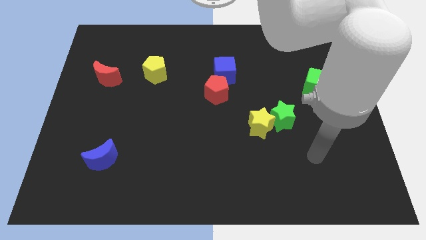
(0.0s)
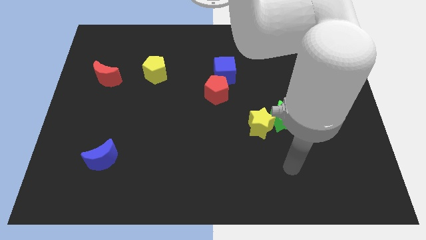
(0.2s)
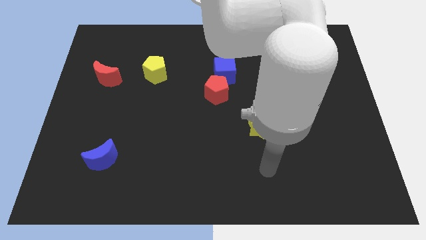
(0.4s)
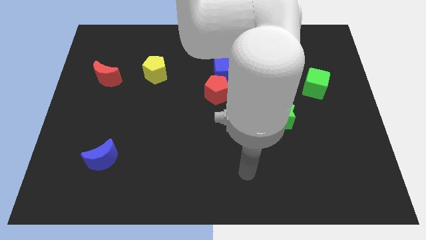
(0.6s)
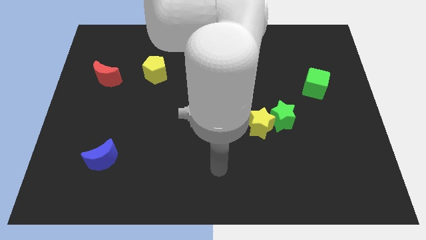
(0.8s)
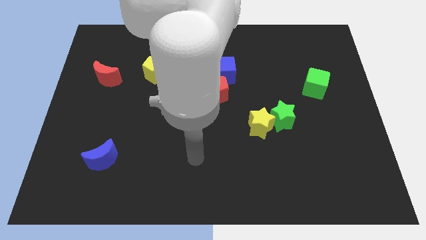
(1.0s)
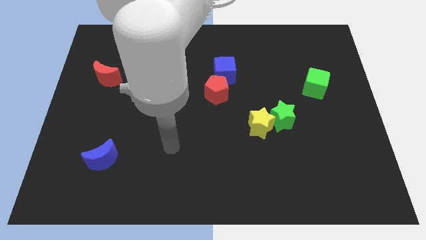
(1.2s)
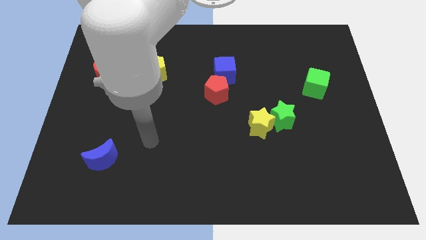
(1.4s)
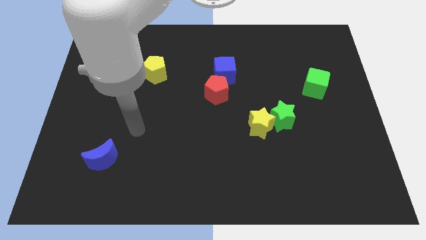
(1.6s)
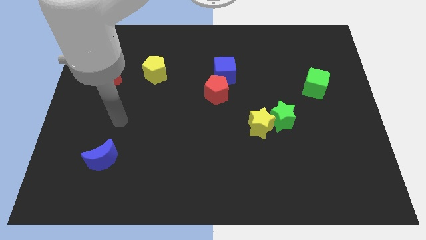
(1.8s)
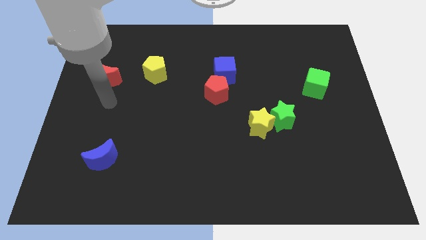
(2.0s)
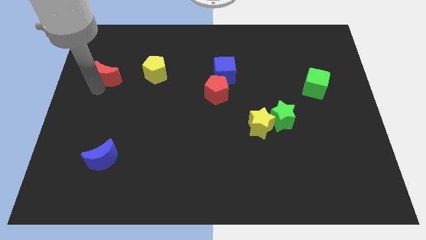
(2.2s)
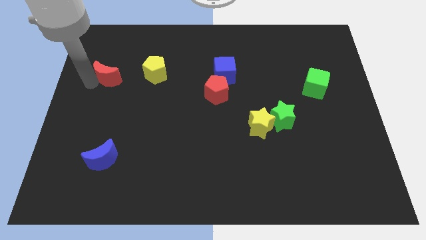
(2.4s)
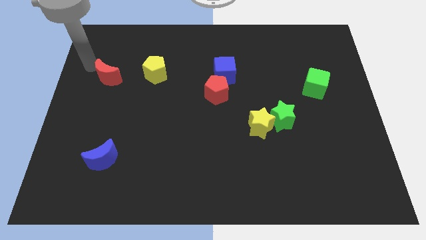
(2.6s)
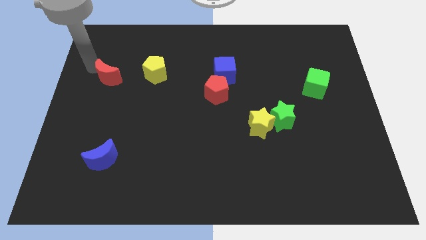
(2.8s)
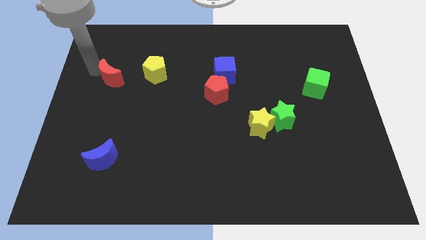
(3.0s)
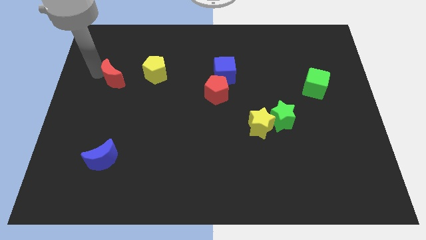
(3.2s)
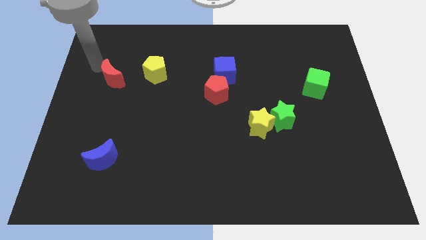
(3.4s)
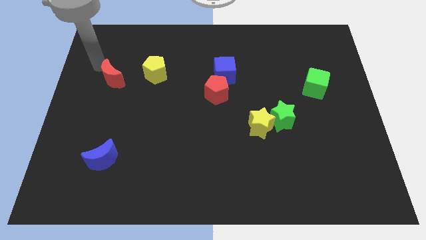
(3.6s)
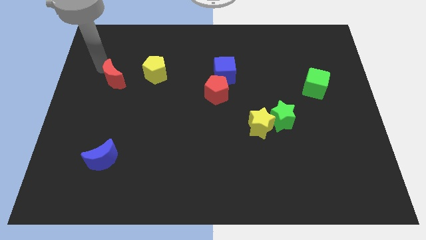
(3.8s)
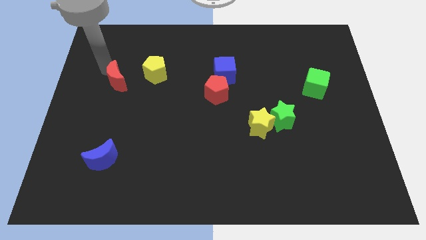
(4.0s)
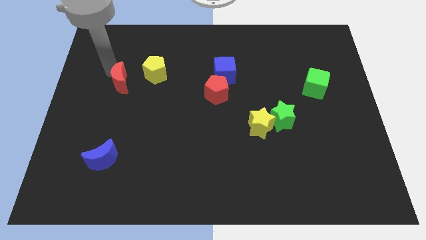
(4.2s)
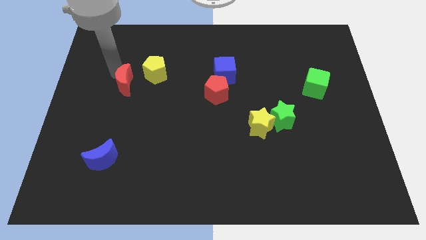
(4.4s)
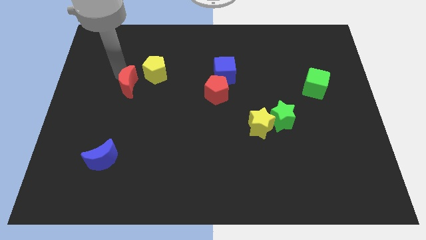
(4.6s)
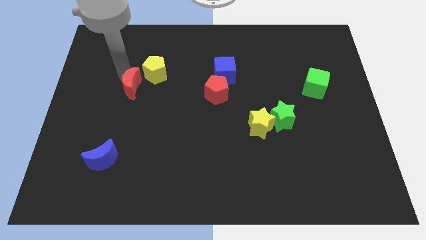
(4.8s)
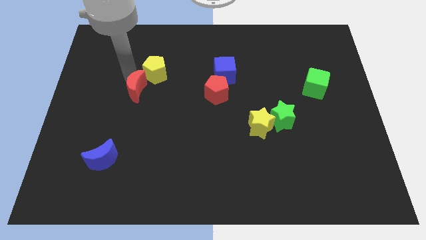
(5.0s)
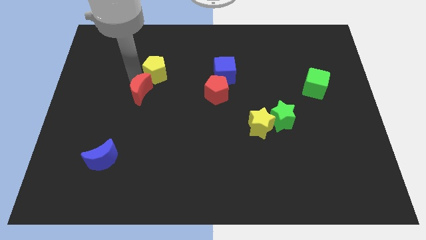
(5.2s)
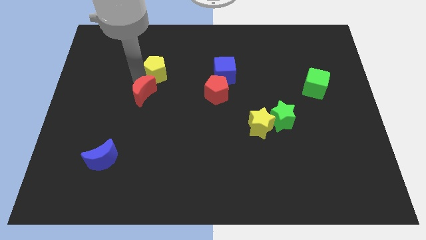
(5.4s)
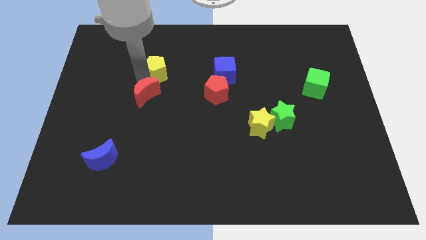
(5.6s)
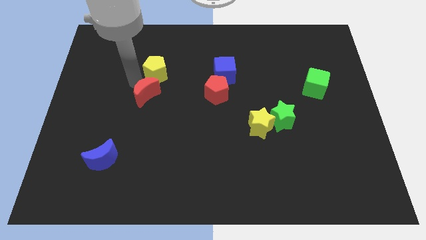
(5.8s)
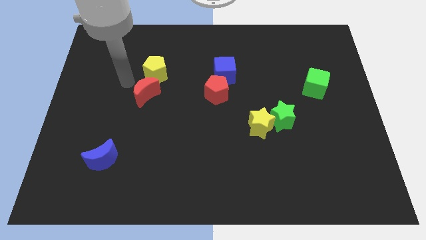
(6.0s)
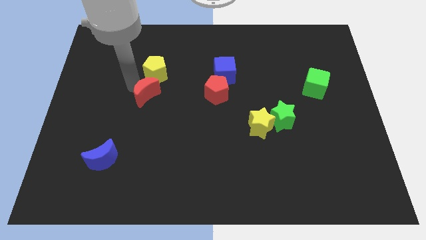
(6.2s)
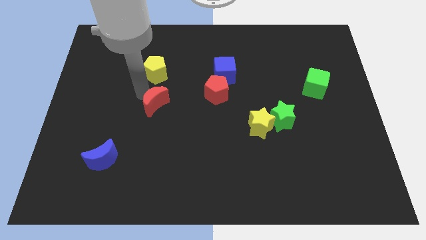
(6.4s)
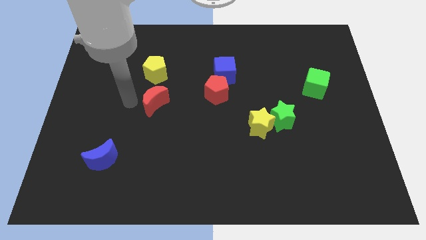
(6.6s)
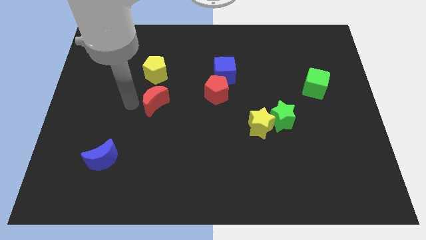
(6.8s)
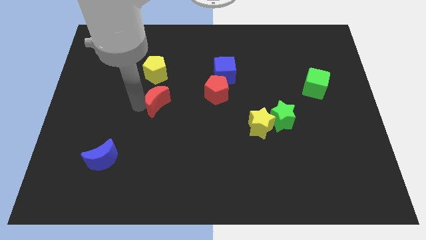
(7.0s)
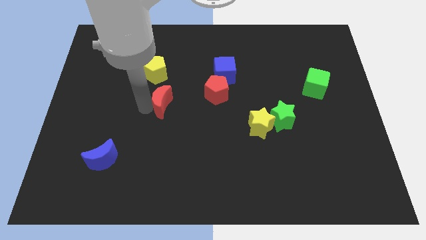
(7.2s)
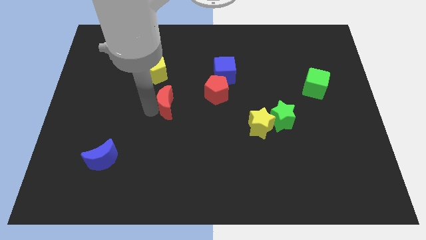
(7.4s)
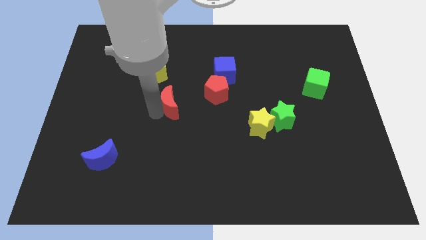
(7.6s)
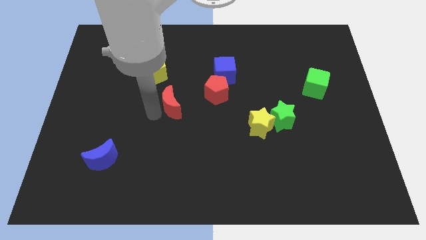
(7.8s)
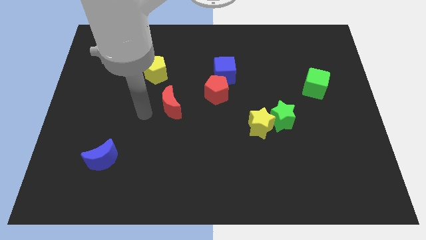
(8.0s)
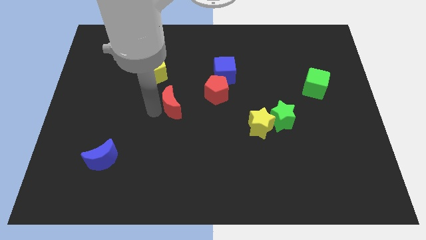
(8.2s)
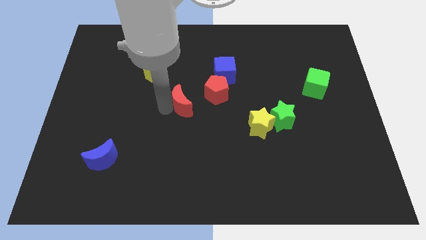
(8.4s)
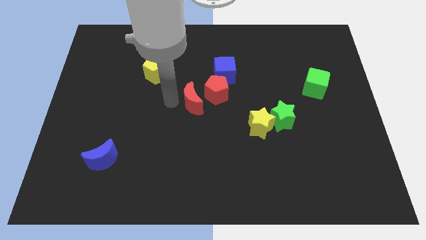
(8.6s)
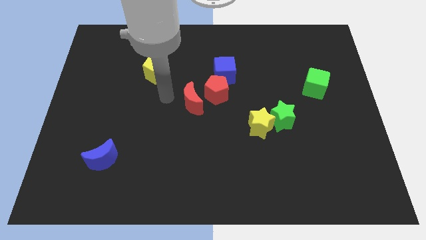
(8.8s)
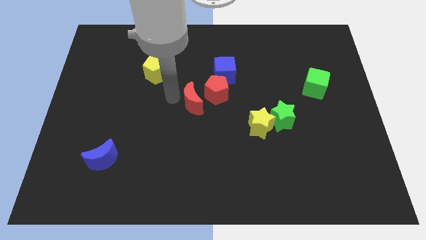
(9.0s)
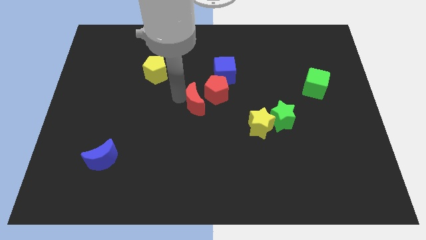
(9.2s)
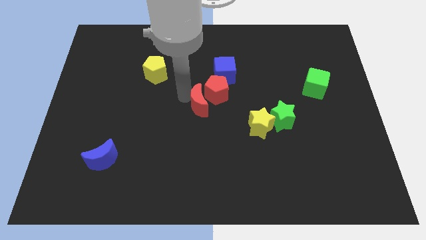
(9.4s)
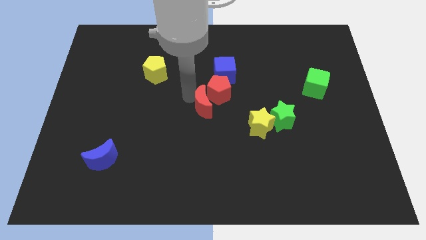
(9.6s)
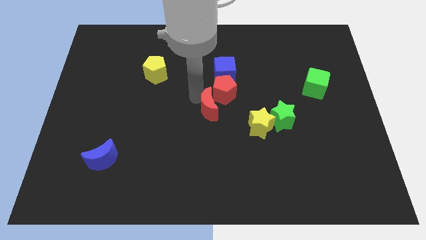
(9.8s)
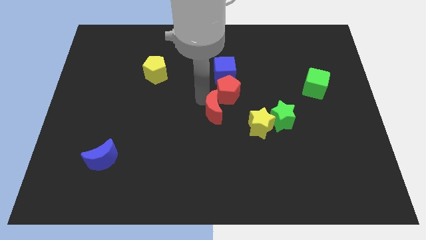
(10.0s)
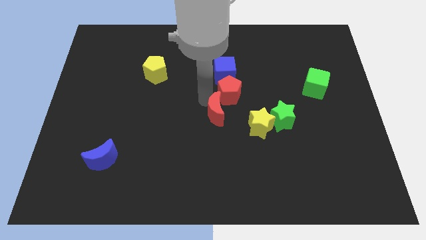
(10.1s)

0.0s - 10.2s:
put the red moon to the top left of the yellow star

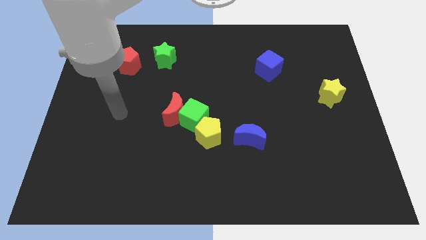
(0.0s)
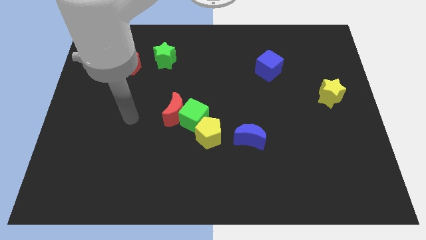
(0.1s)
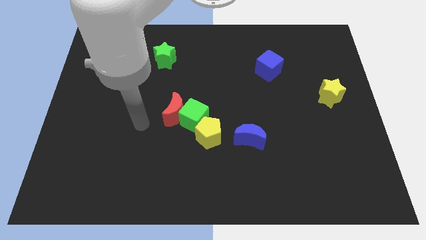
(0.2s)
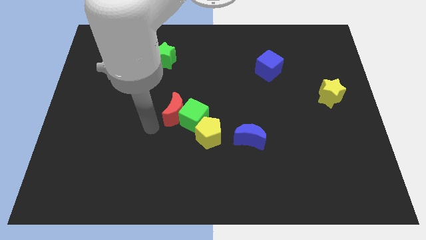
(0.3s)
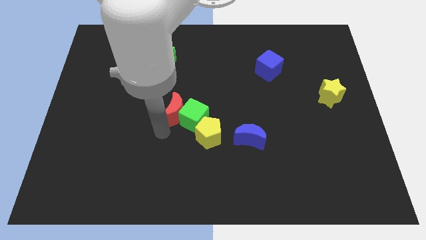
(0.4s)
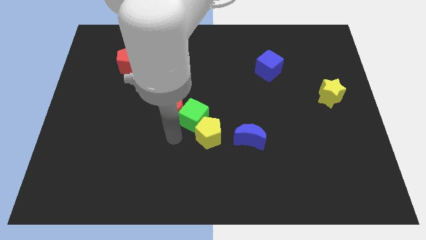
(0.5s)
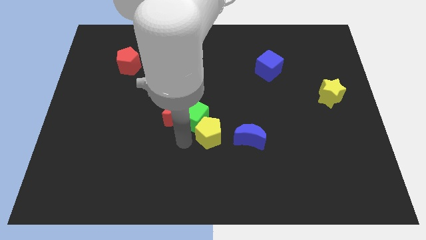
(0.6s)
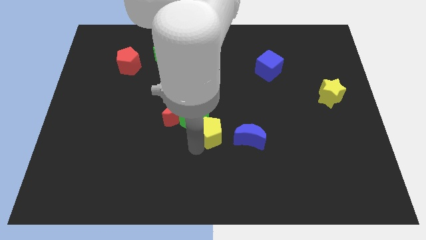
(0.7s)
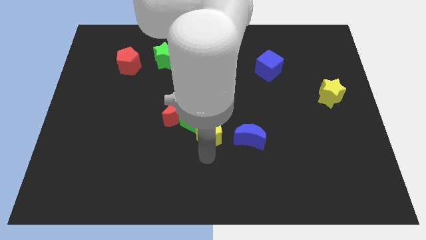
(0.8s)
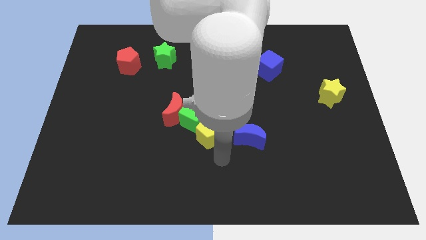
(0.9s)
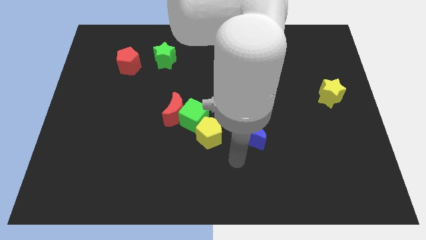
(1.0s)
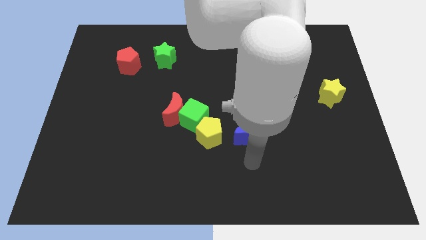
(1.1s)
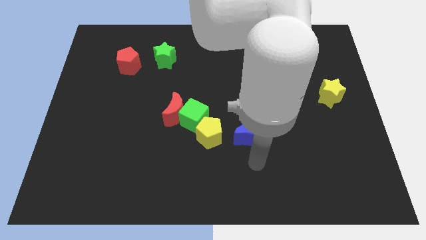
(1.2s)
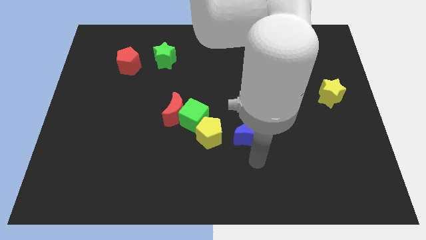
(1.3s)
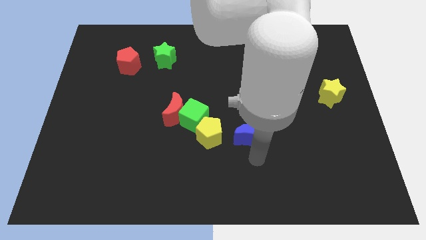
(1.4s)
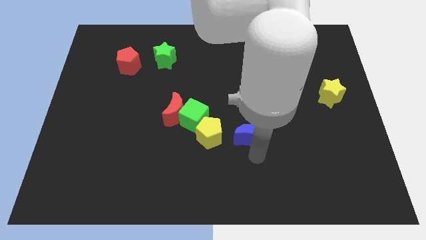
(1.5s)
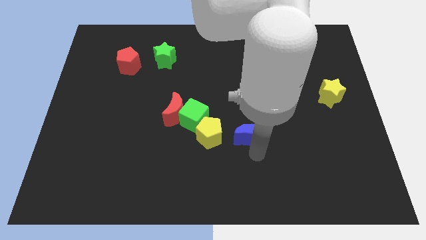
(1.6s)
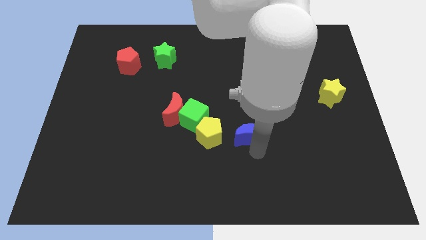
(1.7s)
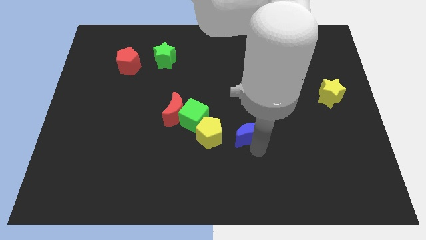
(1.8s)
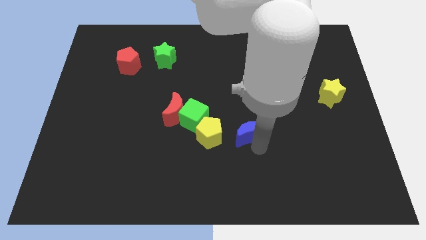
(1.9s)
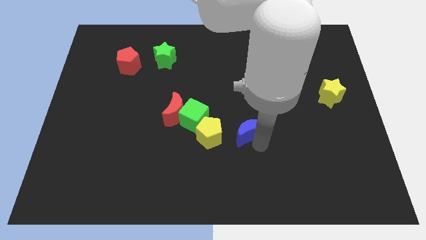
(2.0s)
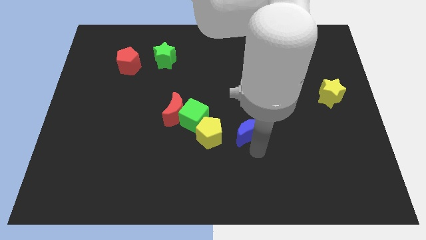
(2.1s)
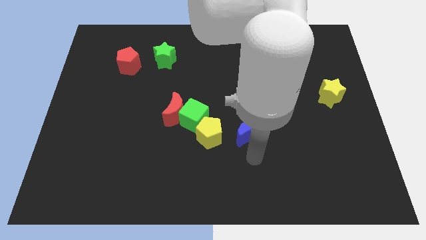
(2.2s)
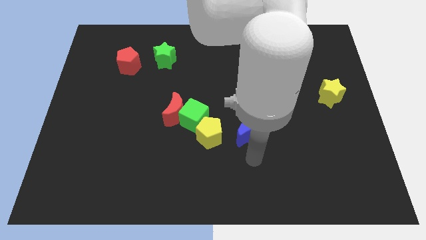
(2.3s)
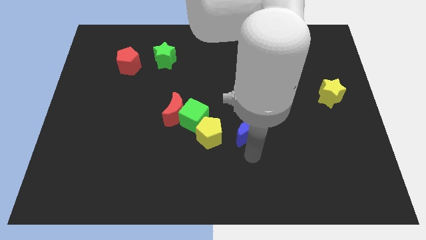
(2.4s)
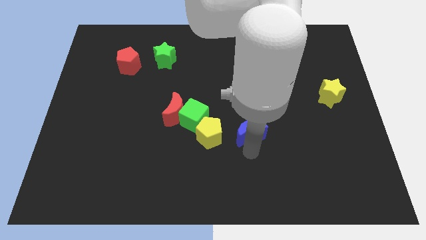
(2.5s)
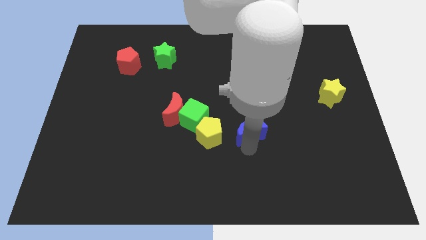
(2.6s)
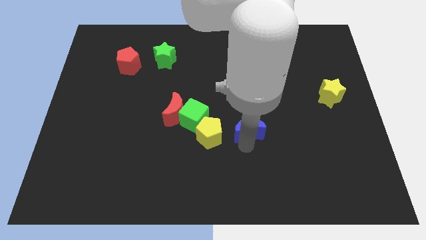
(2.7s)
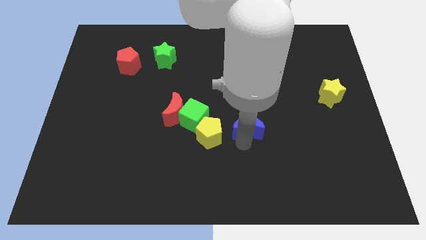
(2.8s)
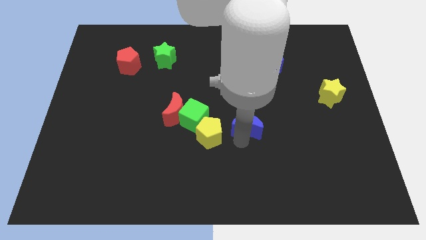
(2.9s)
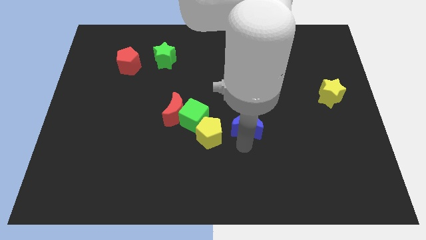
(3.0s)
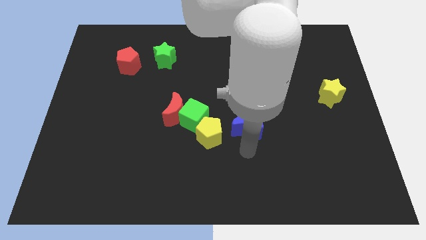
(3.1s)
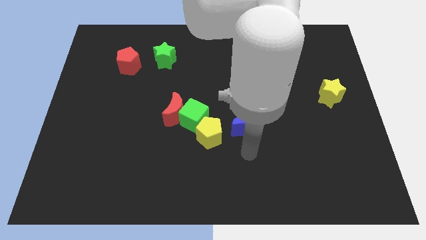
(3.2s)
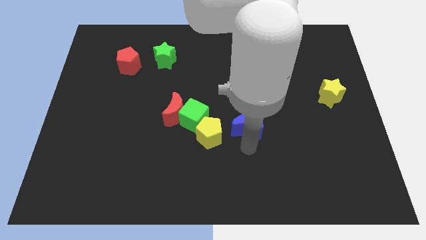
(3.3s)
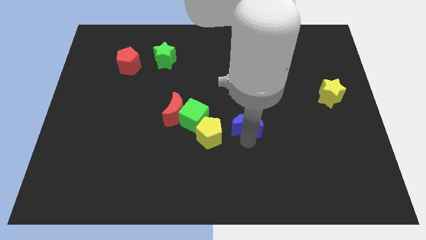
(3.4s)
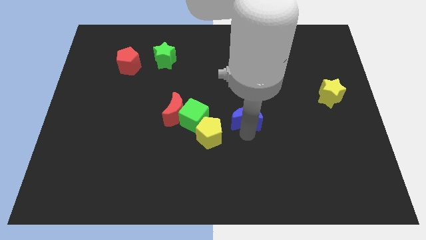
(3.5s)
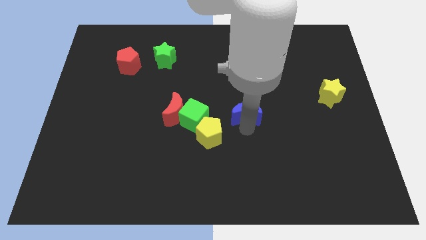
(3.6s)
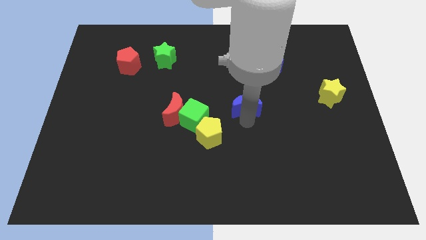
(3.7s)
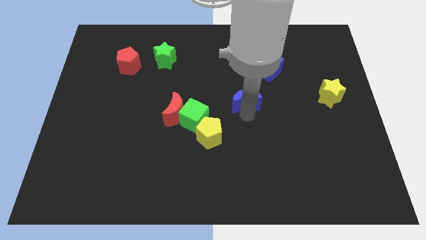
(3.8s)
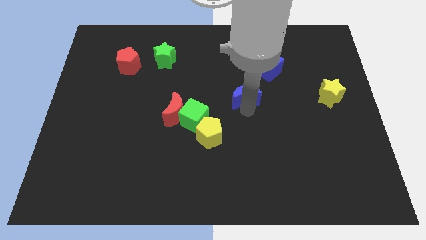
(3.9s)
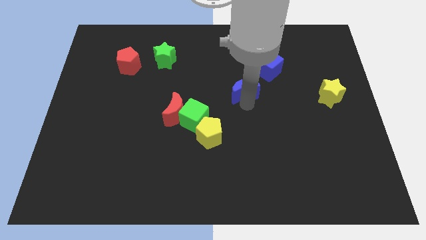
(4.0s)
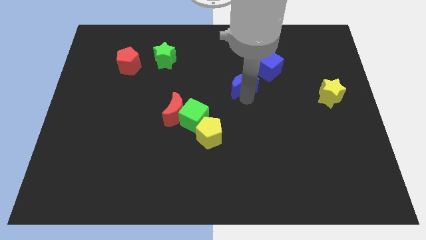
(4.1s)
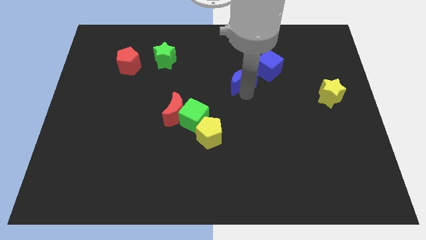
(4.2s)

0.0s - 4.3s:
push the blue moon to the left side of the blue cube
